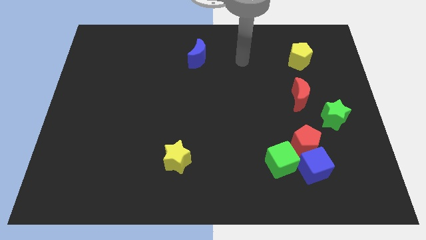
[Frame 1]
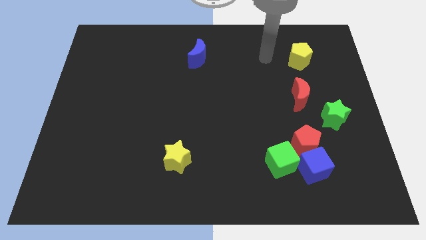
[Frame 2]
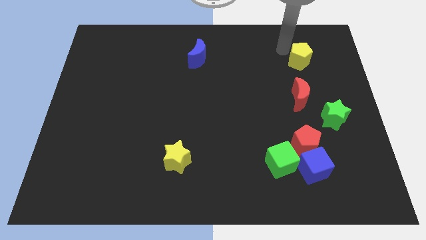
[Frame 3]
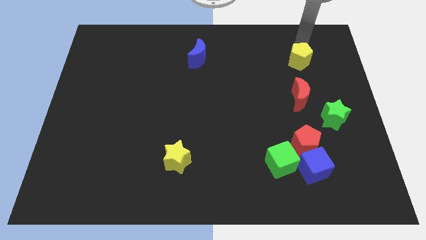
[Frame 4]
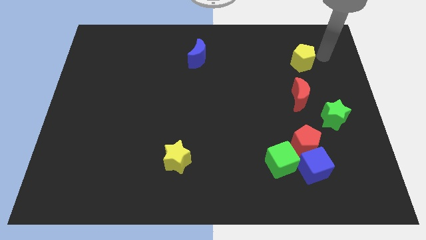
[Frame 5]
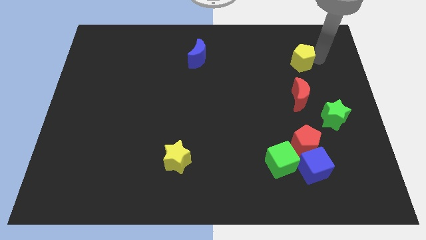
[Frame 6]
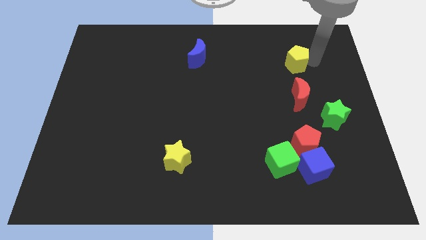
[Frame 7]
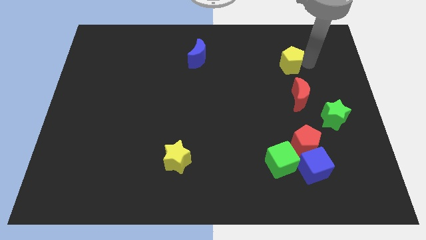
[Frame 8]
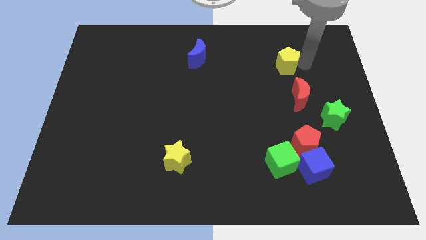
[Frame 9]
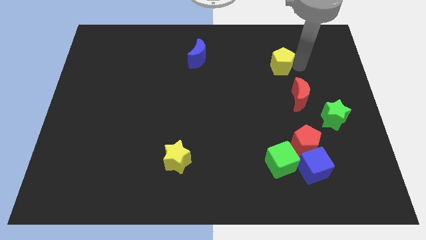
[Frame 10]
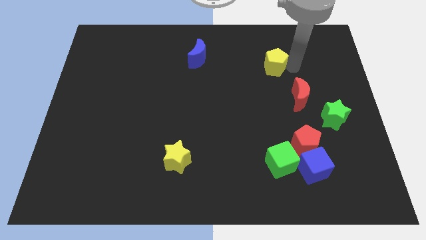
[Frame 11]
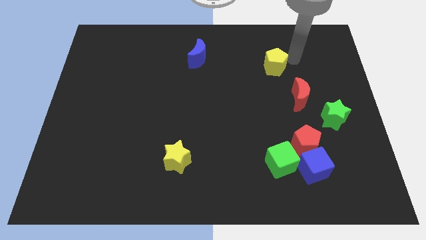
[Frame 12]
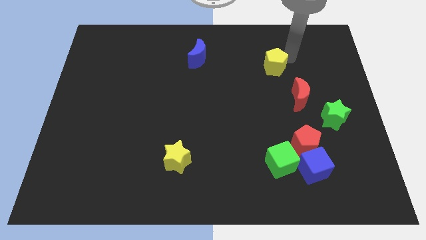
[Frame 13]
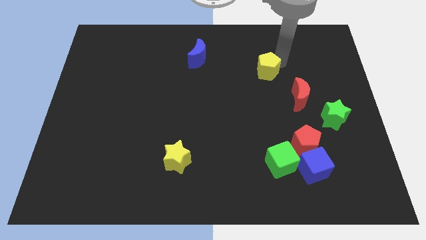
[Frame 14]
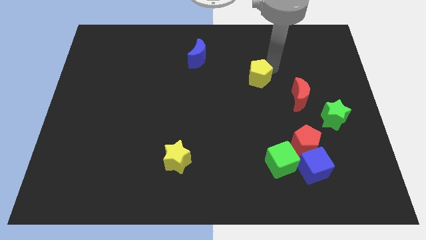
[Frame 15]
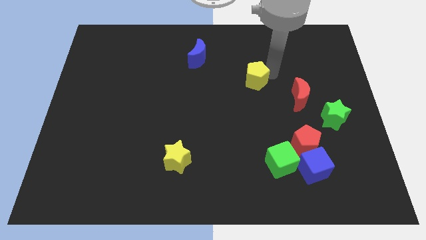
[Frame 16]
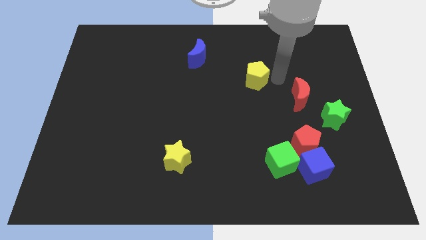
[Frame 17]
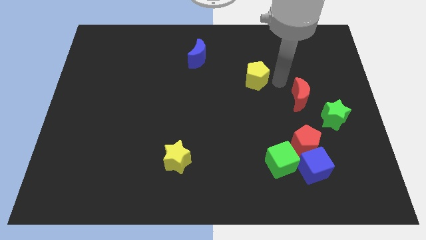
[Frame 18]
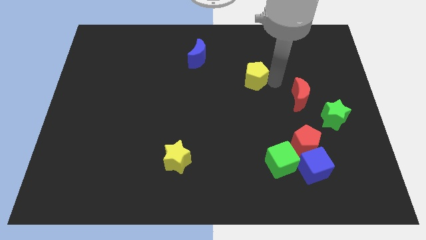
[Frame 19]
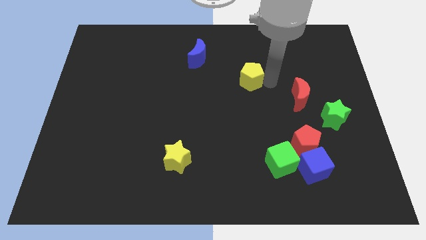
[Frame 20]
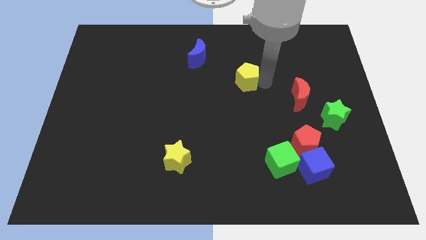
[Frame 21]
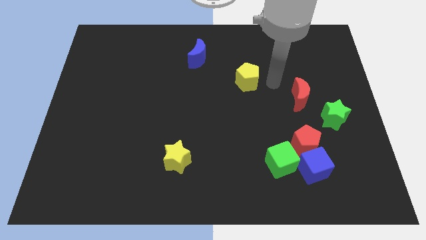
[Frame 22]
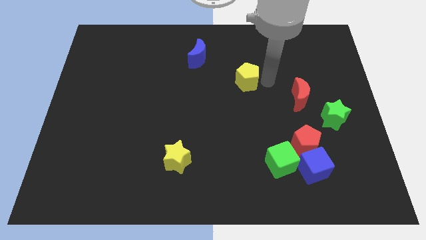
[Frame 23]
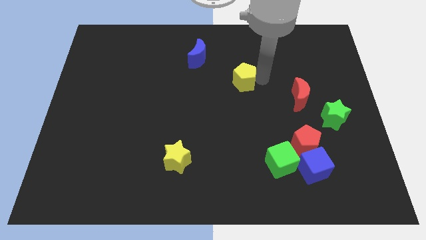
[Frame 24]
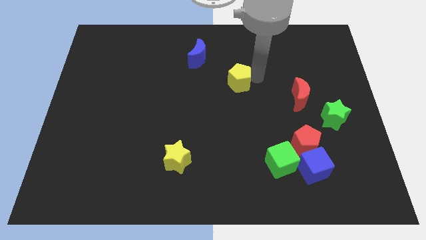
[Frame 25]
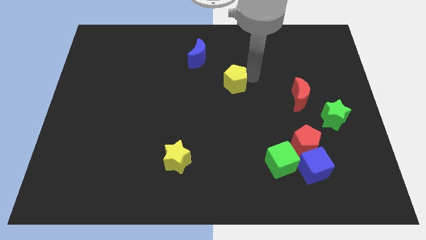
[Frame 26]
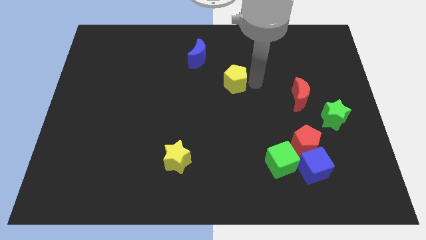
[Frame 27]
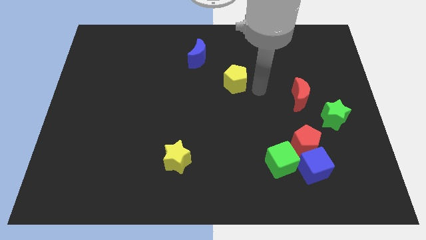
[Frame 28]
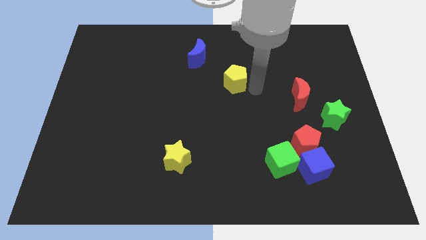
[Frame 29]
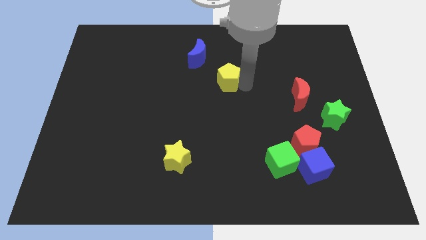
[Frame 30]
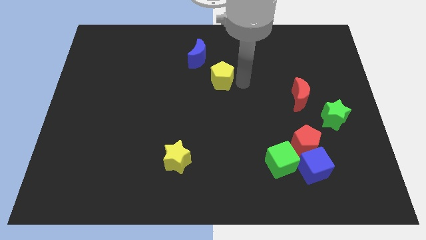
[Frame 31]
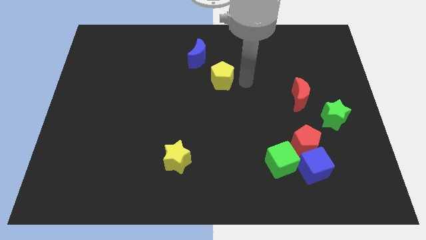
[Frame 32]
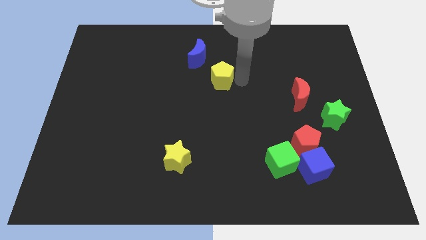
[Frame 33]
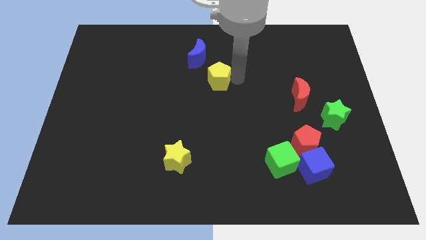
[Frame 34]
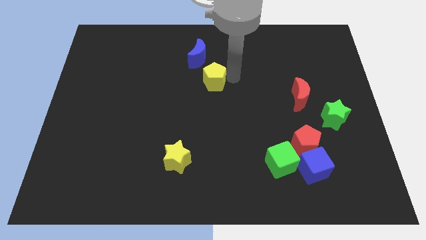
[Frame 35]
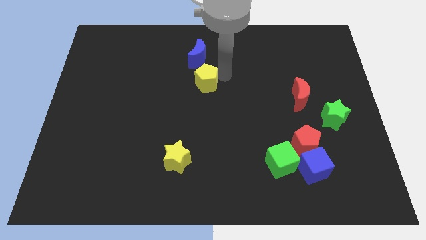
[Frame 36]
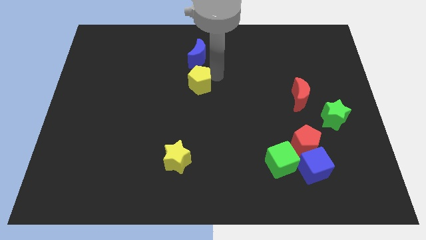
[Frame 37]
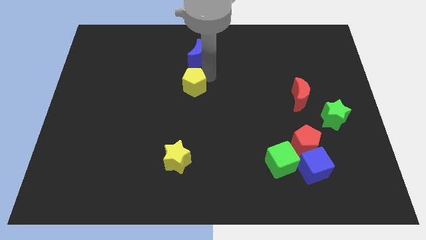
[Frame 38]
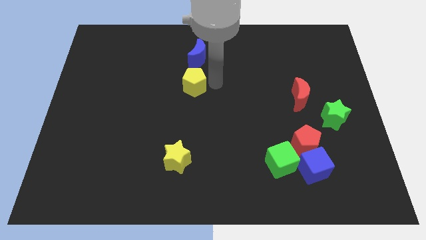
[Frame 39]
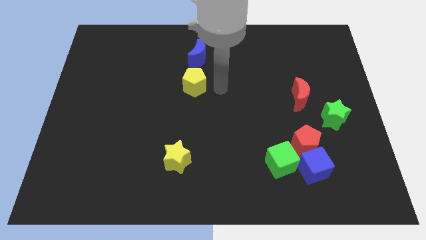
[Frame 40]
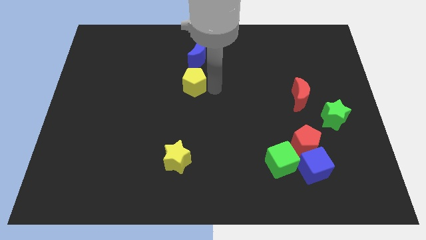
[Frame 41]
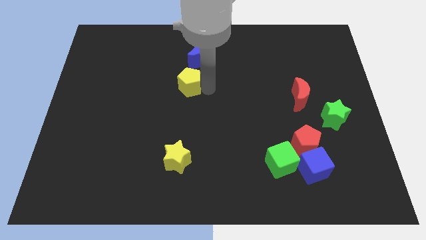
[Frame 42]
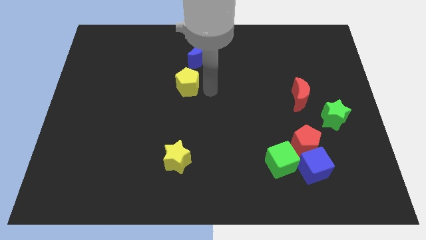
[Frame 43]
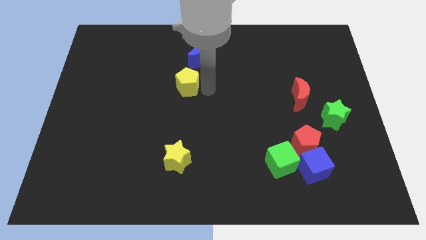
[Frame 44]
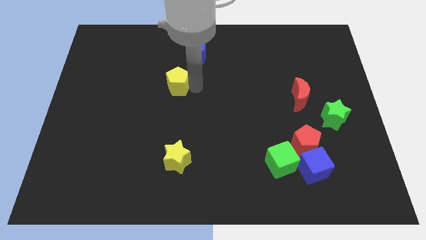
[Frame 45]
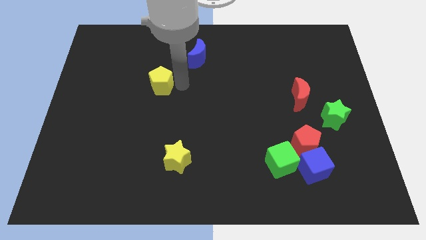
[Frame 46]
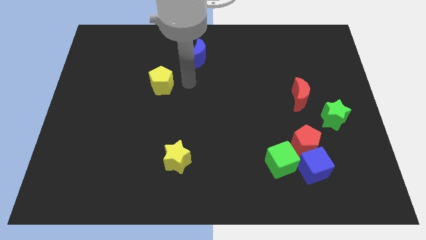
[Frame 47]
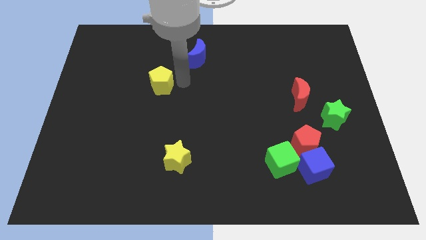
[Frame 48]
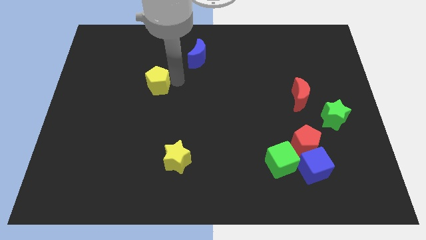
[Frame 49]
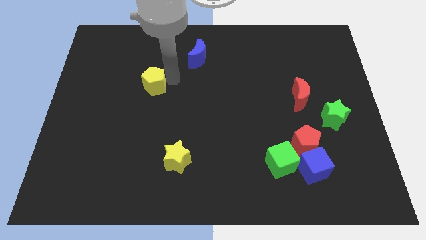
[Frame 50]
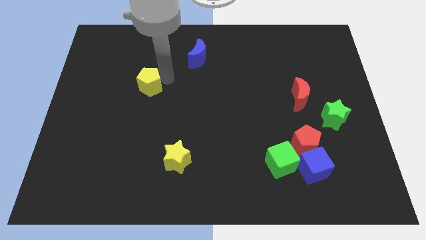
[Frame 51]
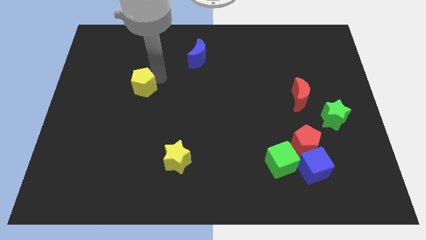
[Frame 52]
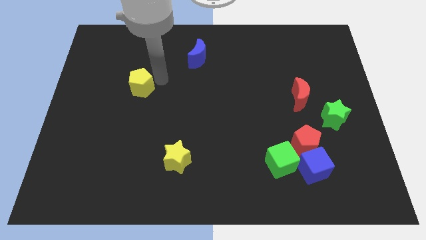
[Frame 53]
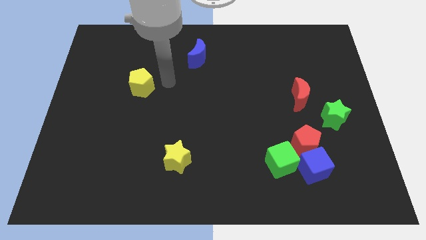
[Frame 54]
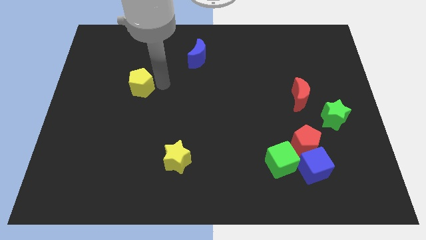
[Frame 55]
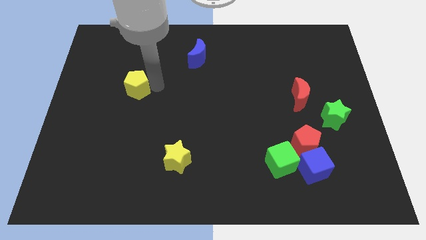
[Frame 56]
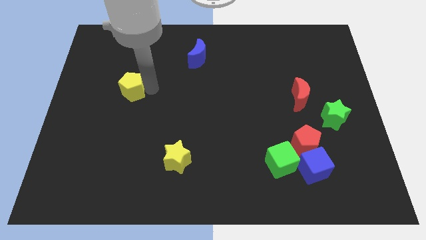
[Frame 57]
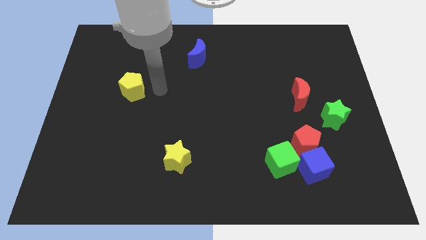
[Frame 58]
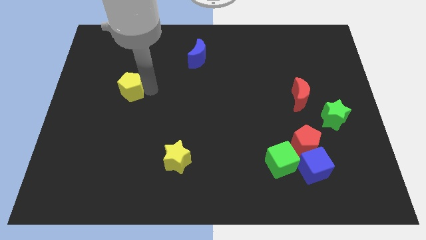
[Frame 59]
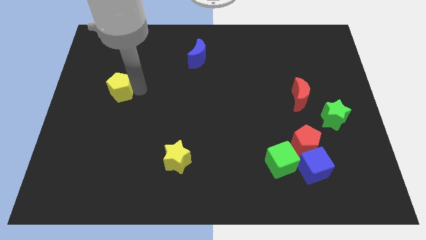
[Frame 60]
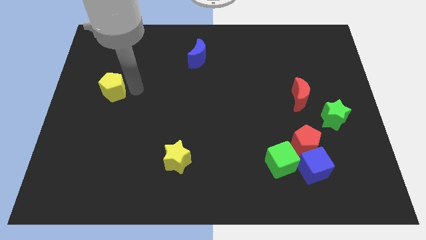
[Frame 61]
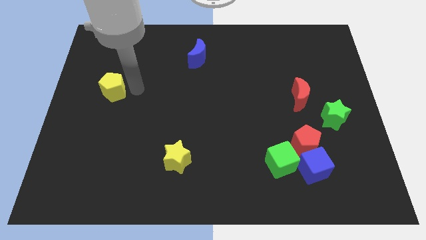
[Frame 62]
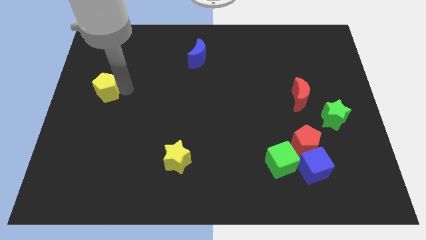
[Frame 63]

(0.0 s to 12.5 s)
move the yellow pentagon to the left side
